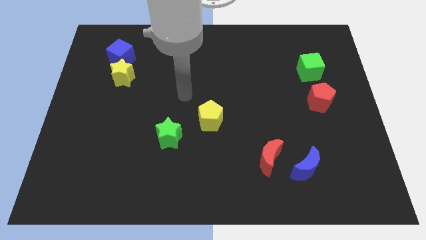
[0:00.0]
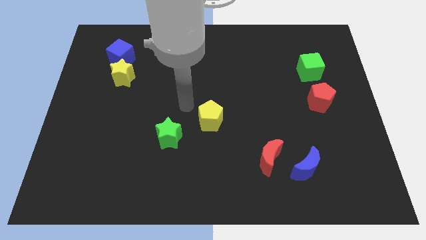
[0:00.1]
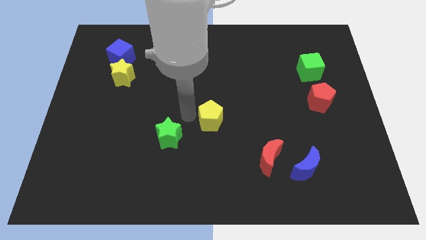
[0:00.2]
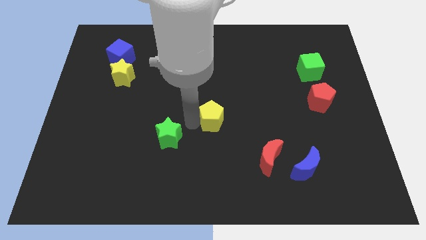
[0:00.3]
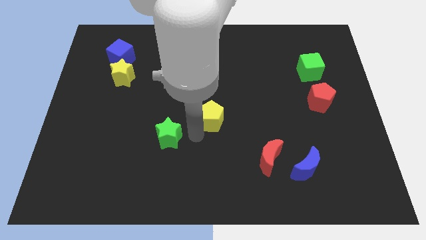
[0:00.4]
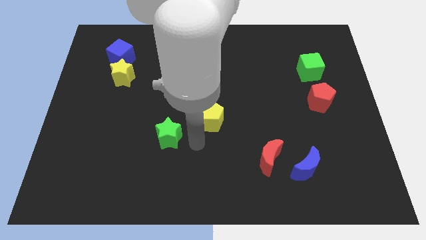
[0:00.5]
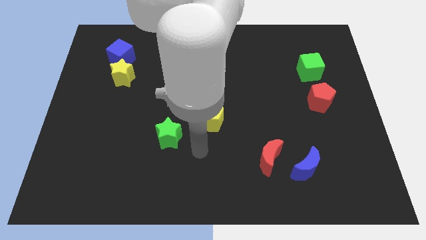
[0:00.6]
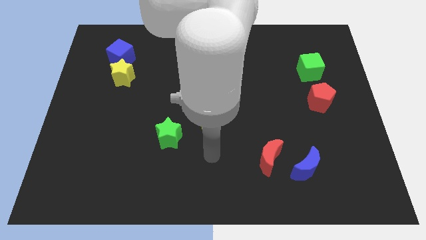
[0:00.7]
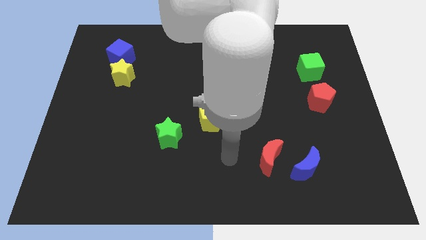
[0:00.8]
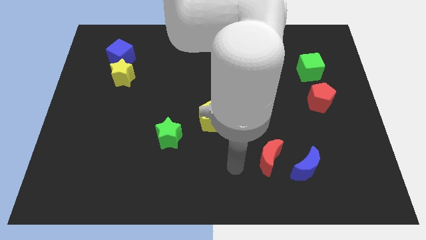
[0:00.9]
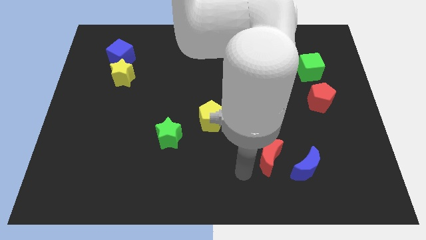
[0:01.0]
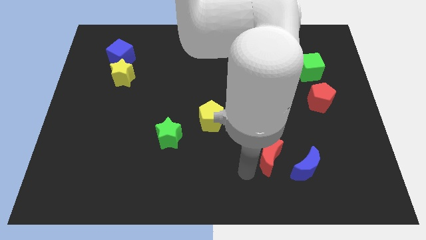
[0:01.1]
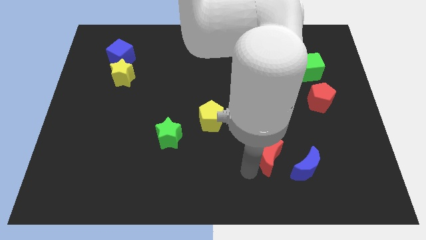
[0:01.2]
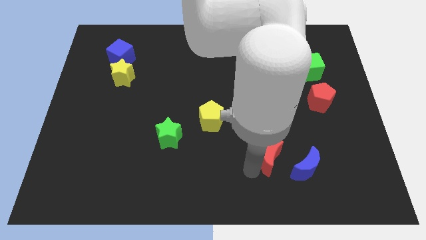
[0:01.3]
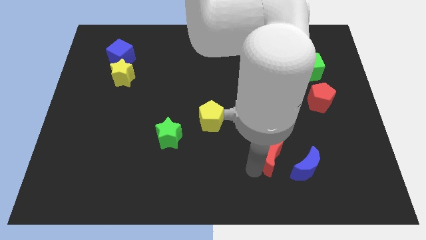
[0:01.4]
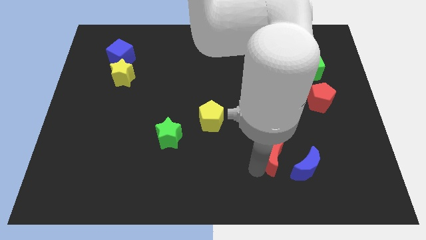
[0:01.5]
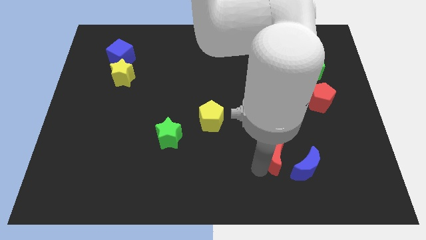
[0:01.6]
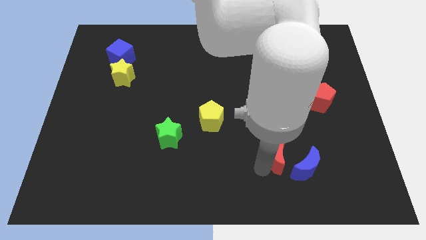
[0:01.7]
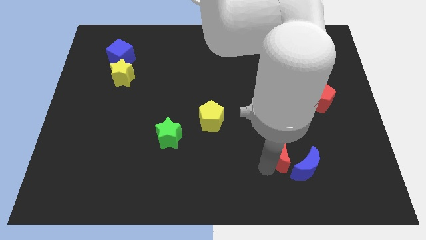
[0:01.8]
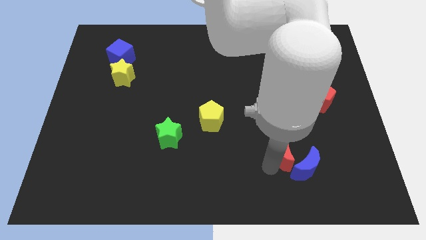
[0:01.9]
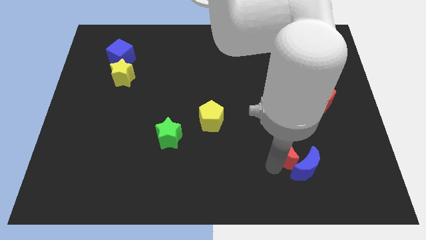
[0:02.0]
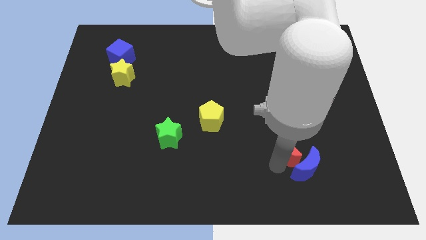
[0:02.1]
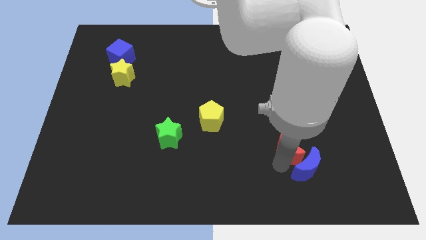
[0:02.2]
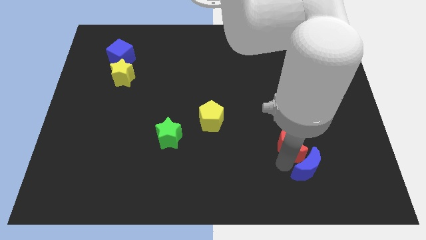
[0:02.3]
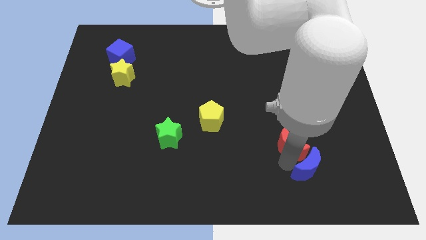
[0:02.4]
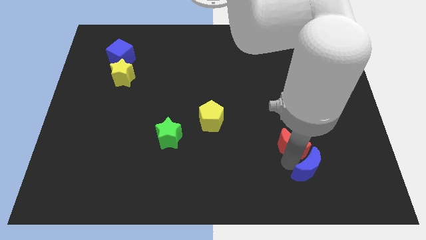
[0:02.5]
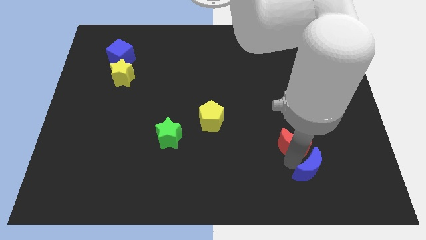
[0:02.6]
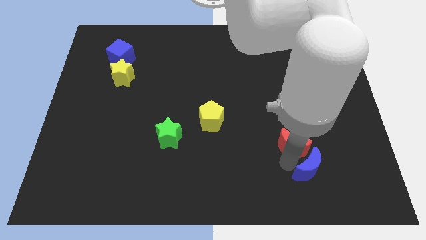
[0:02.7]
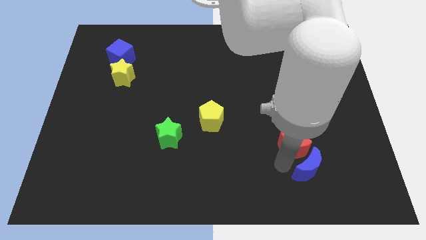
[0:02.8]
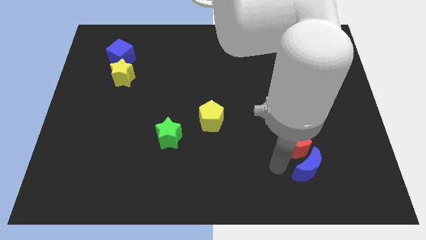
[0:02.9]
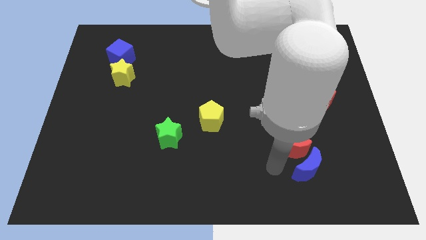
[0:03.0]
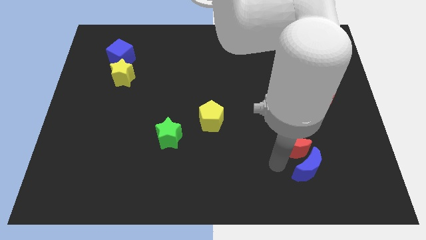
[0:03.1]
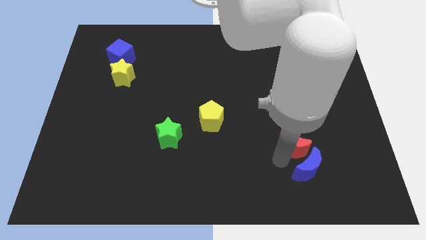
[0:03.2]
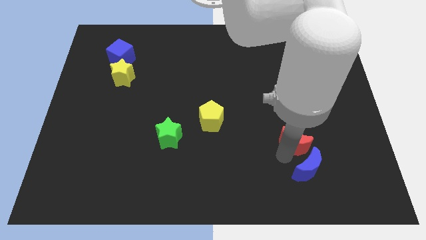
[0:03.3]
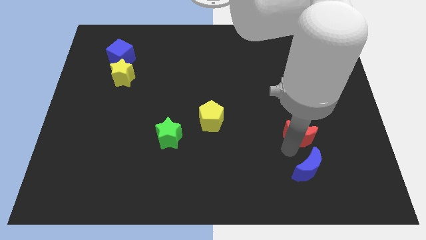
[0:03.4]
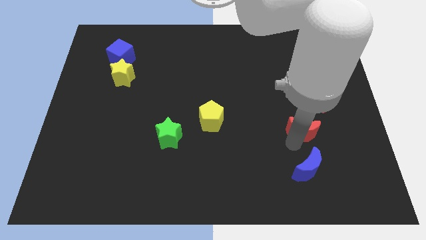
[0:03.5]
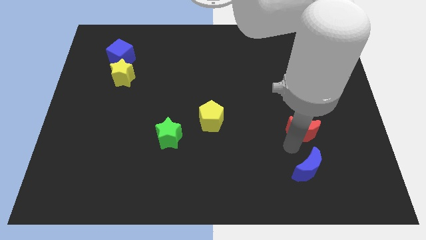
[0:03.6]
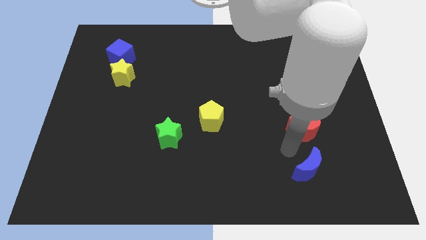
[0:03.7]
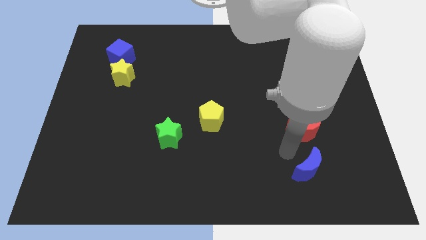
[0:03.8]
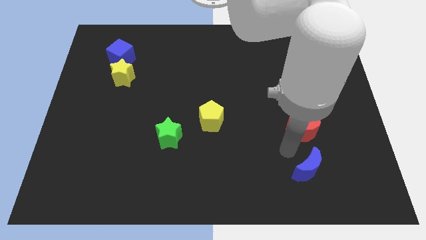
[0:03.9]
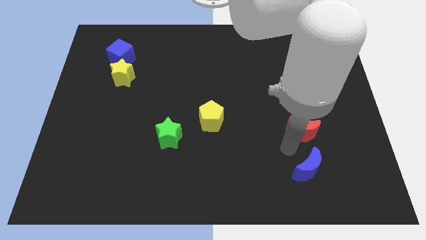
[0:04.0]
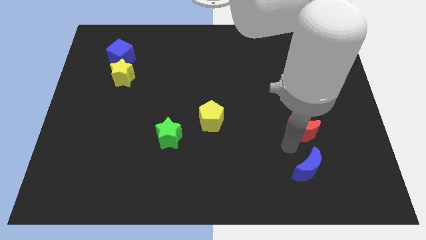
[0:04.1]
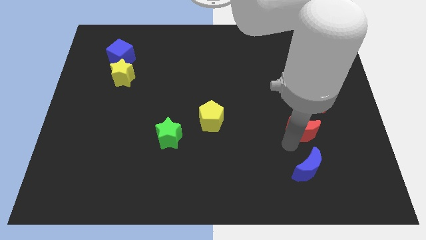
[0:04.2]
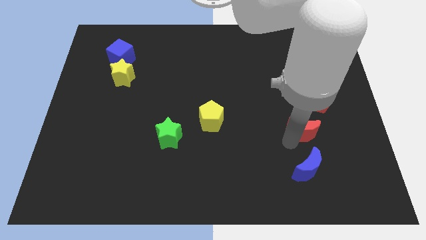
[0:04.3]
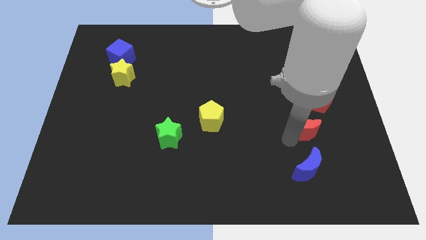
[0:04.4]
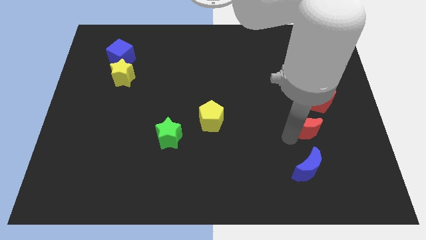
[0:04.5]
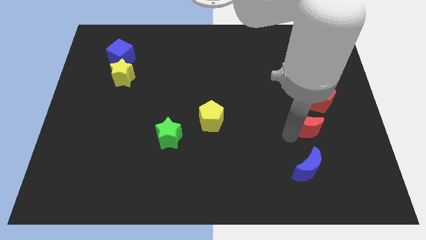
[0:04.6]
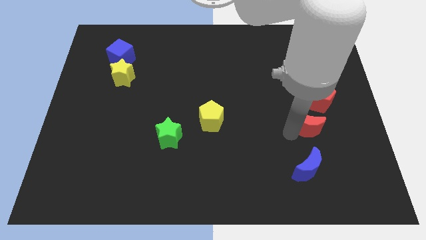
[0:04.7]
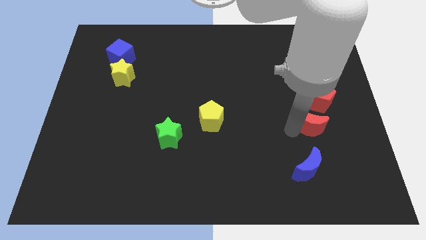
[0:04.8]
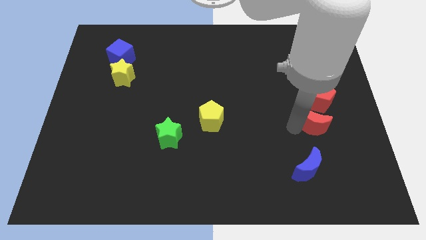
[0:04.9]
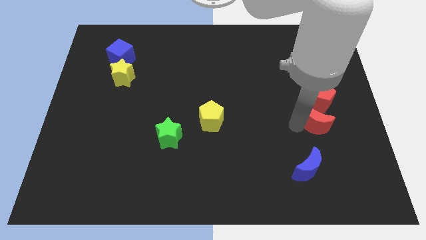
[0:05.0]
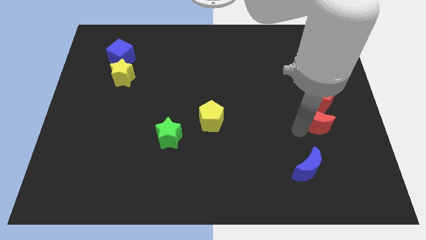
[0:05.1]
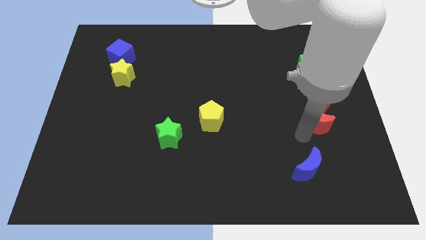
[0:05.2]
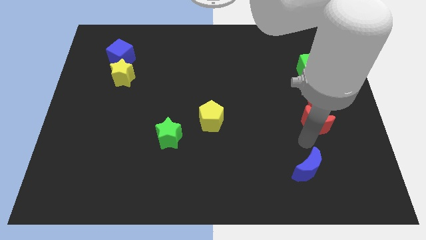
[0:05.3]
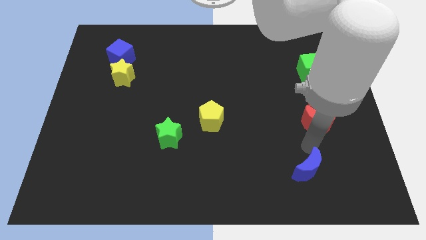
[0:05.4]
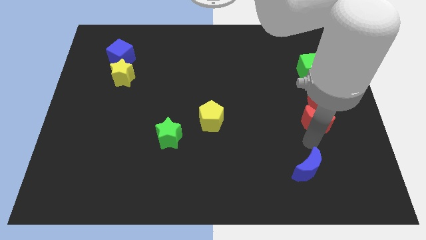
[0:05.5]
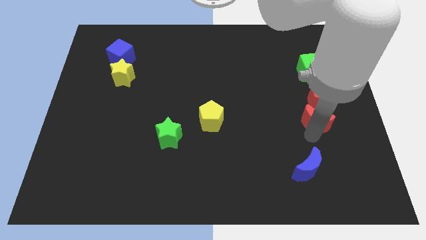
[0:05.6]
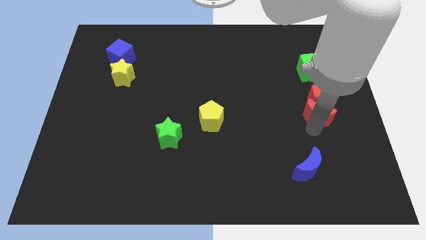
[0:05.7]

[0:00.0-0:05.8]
slide the red moon towards the red pentagon

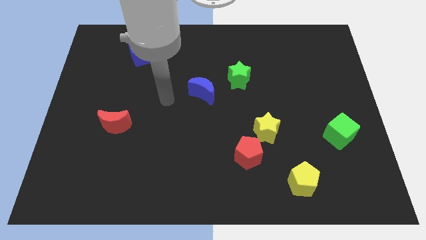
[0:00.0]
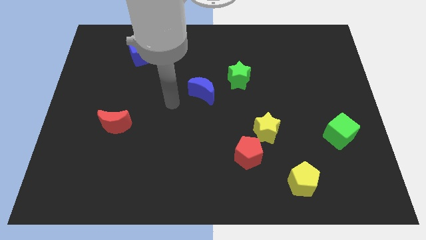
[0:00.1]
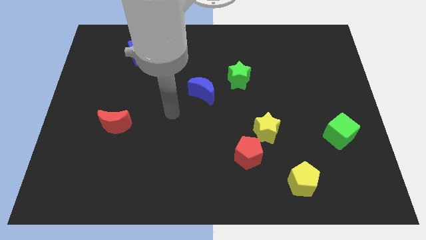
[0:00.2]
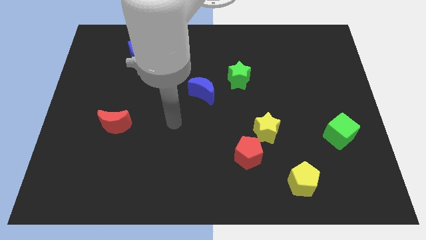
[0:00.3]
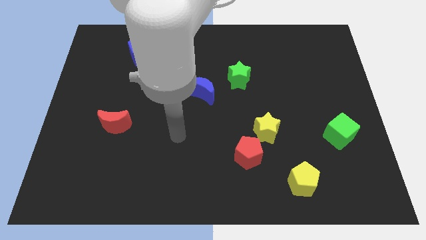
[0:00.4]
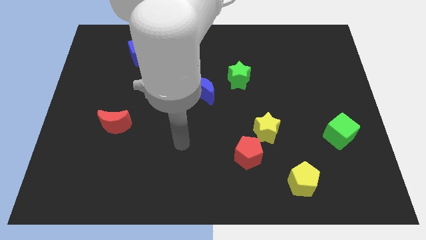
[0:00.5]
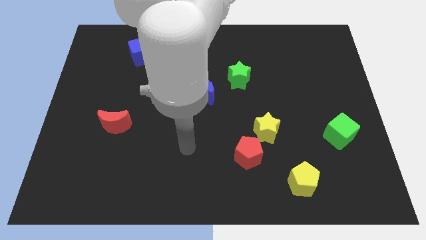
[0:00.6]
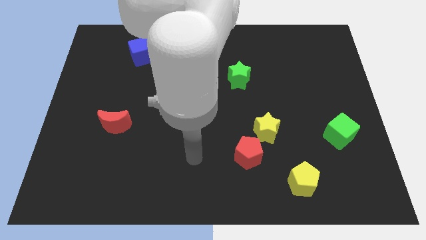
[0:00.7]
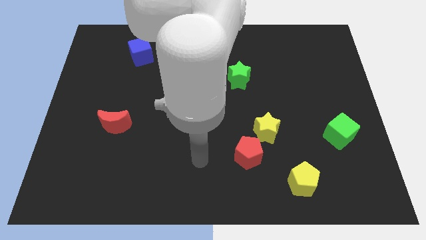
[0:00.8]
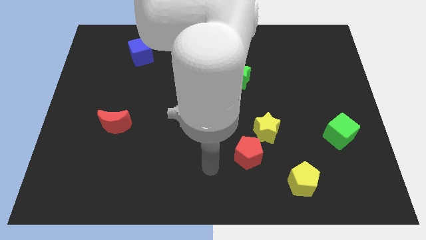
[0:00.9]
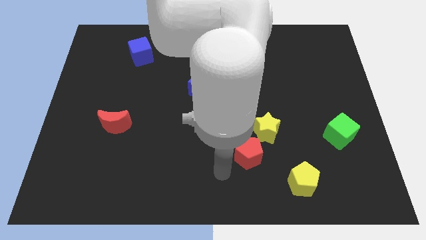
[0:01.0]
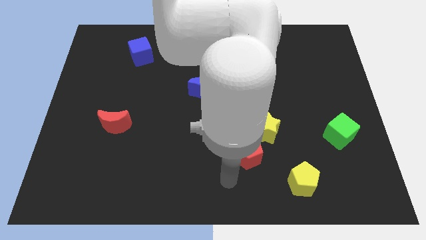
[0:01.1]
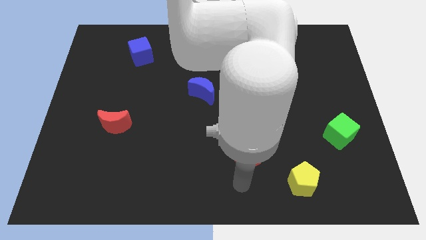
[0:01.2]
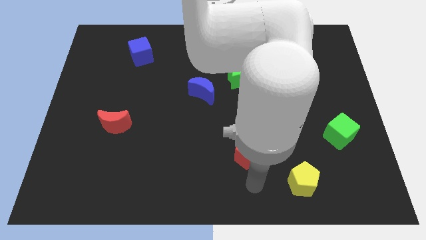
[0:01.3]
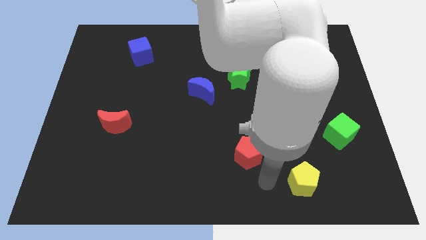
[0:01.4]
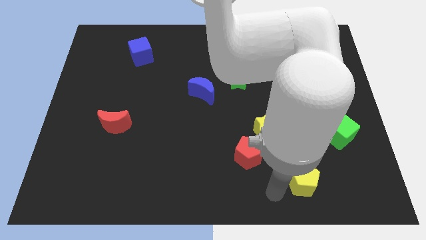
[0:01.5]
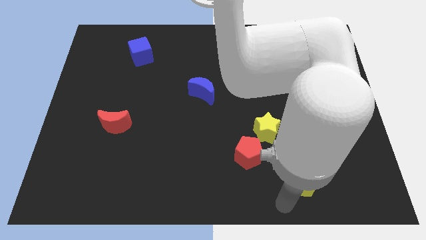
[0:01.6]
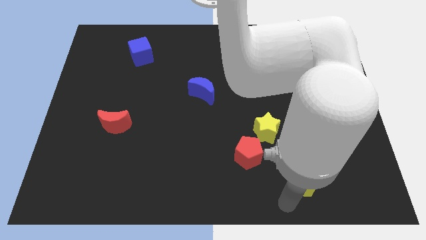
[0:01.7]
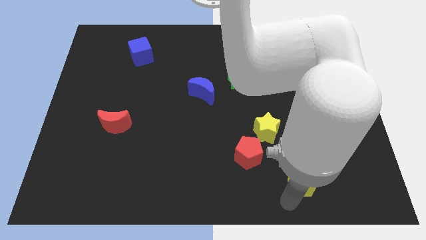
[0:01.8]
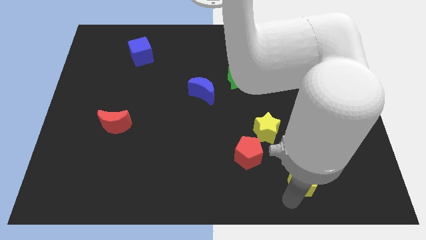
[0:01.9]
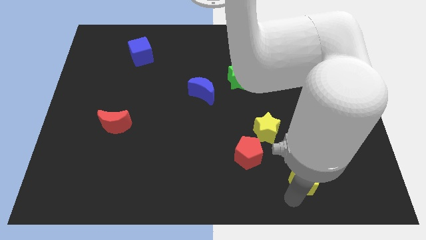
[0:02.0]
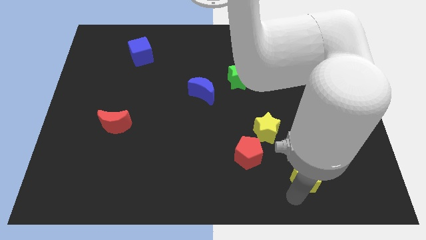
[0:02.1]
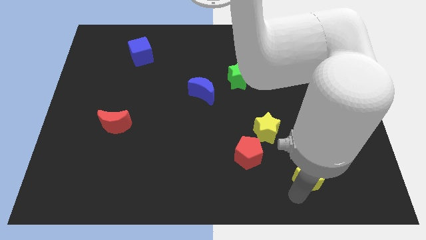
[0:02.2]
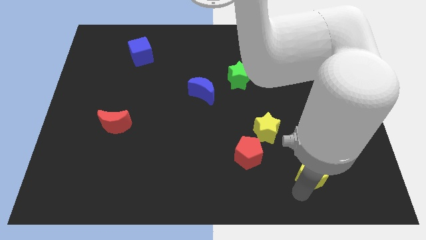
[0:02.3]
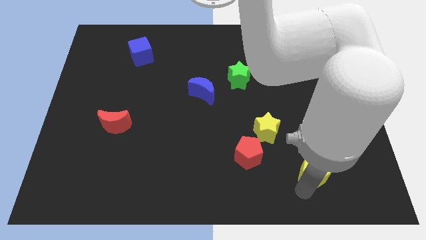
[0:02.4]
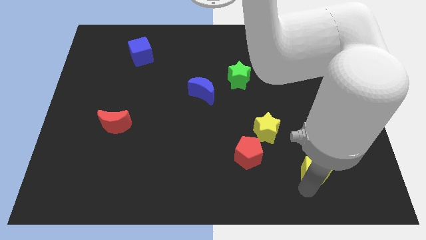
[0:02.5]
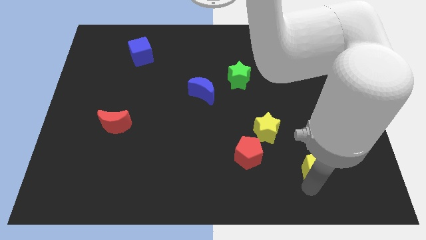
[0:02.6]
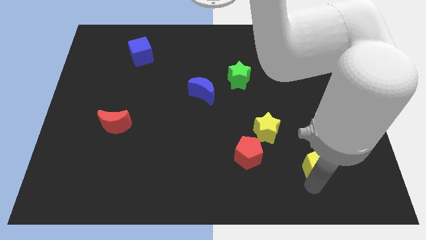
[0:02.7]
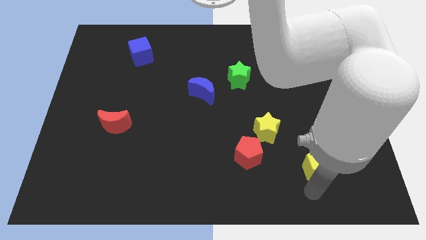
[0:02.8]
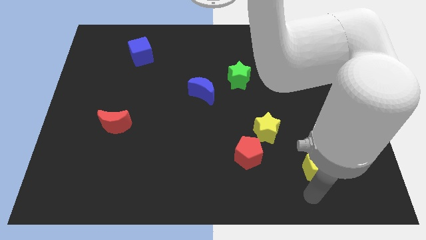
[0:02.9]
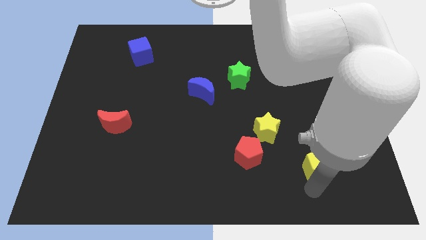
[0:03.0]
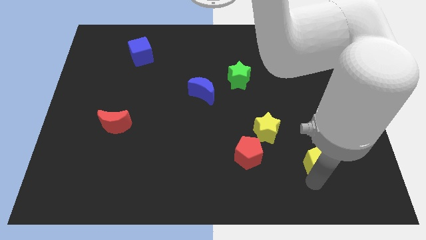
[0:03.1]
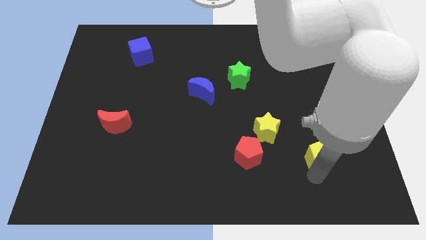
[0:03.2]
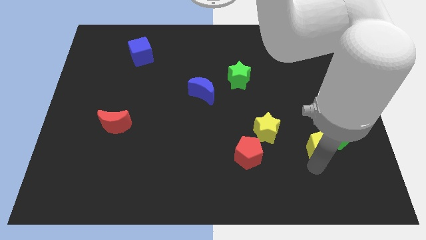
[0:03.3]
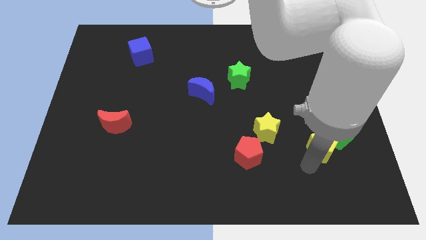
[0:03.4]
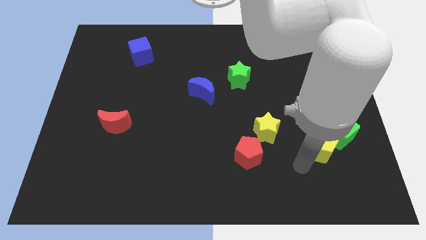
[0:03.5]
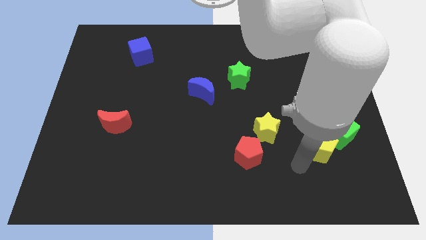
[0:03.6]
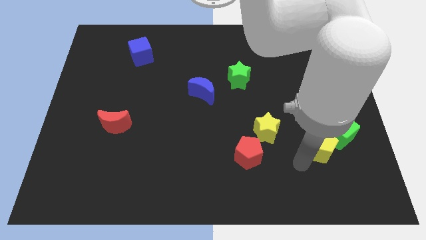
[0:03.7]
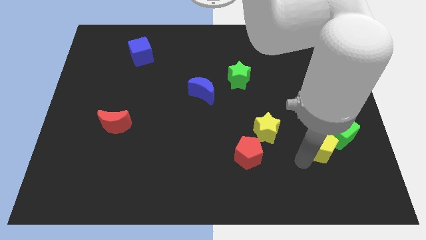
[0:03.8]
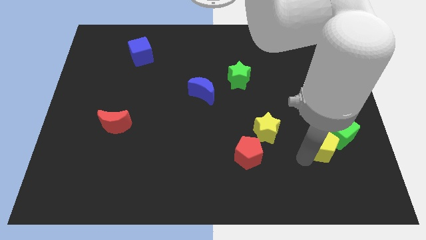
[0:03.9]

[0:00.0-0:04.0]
push the yellow pentagon next to the green cube
